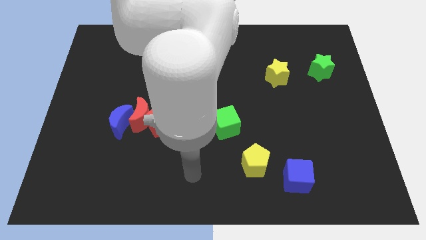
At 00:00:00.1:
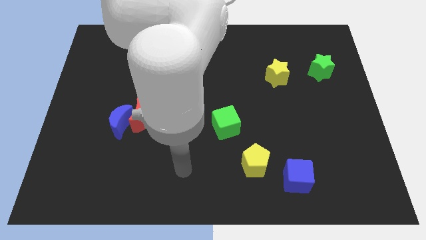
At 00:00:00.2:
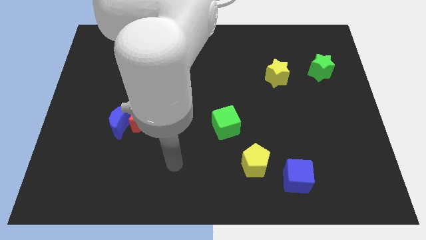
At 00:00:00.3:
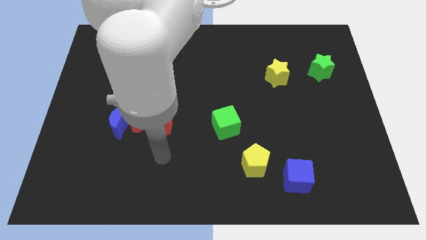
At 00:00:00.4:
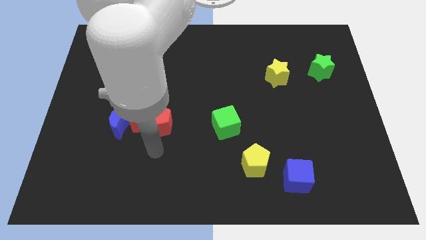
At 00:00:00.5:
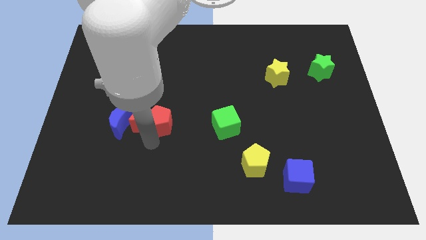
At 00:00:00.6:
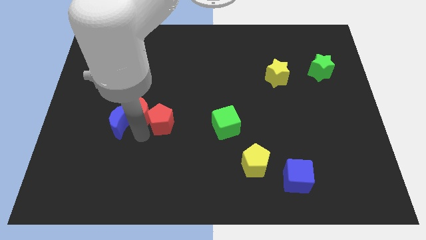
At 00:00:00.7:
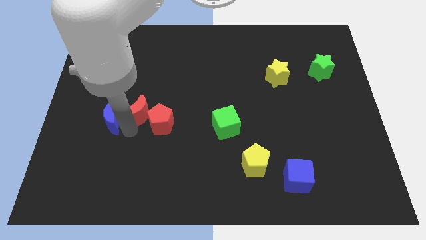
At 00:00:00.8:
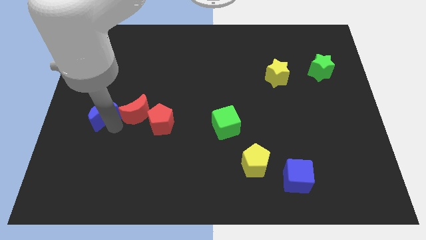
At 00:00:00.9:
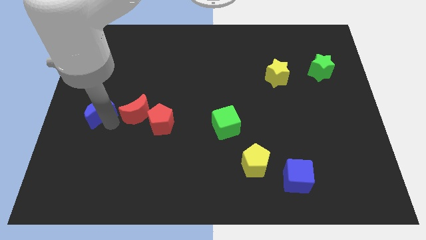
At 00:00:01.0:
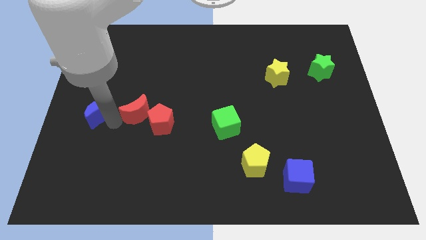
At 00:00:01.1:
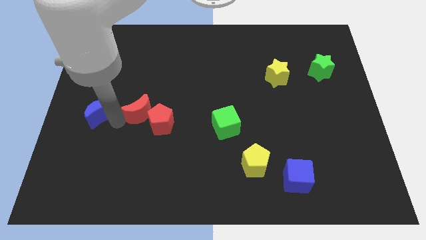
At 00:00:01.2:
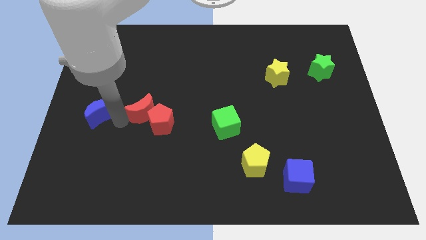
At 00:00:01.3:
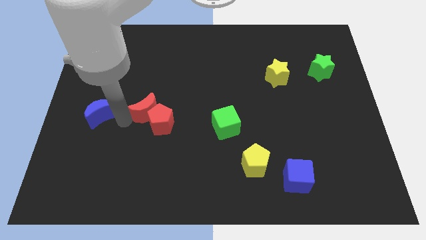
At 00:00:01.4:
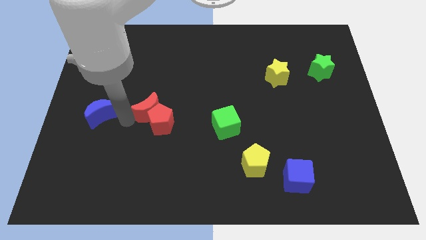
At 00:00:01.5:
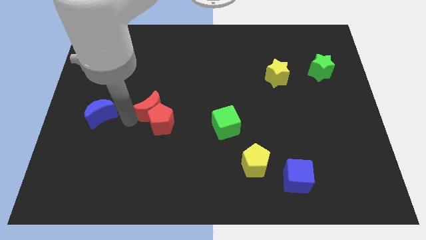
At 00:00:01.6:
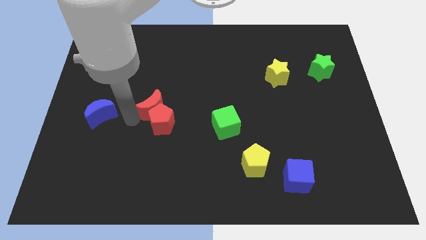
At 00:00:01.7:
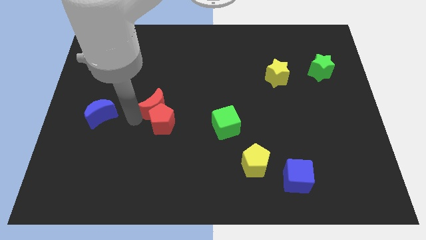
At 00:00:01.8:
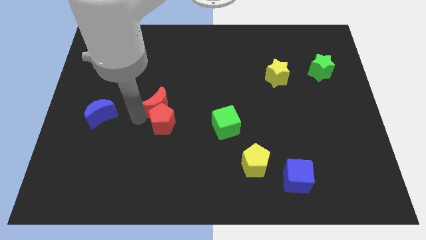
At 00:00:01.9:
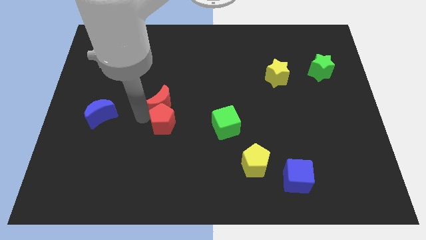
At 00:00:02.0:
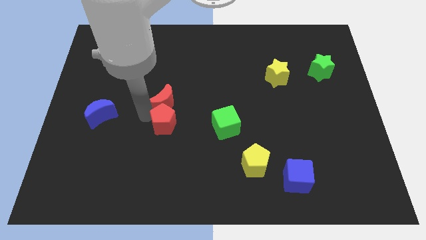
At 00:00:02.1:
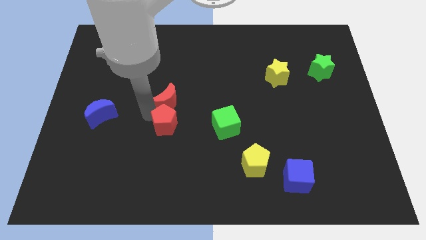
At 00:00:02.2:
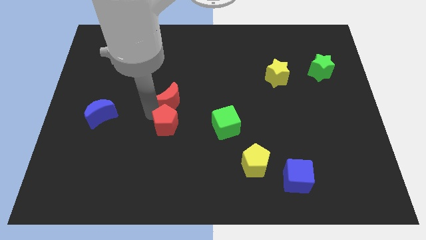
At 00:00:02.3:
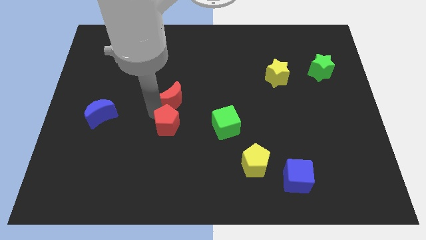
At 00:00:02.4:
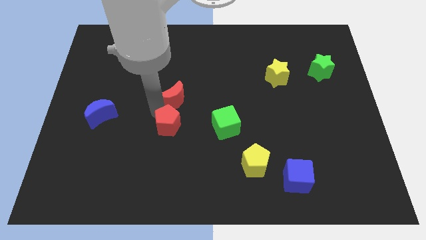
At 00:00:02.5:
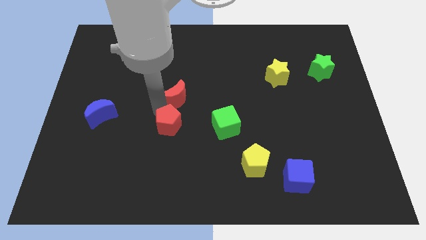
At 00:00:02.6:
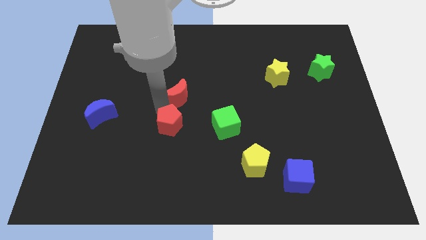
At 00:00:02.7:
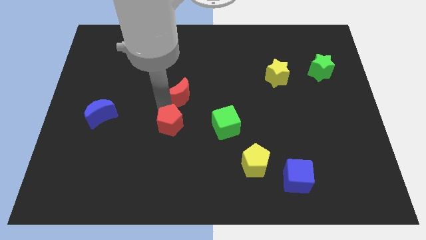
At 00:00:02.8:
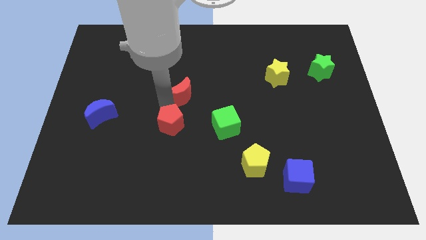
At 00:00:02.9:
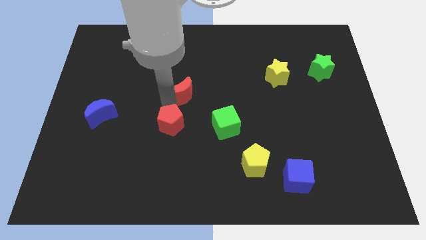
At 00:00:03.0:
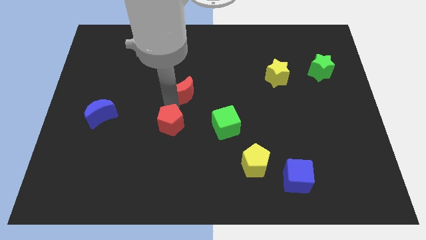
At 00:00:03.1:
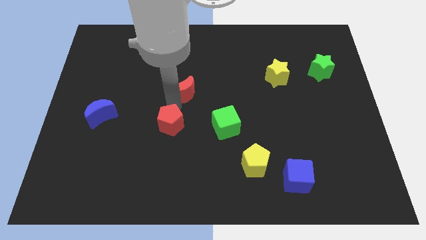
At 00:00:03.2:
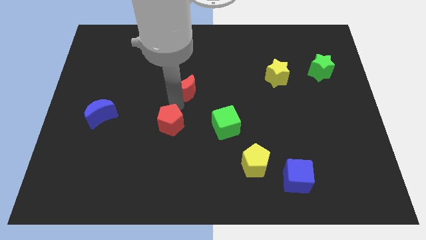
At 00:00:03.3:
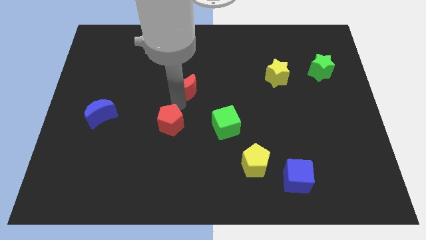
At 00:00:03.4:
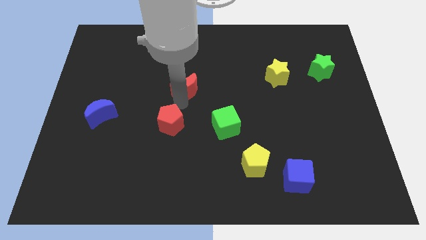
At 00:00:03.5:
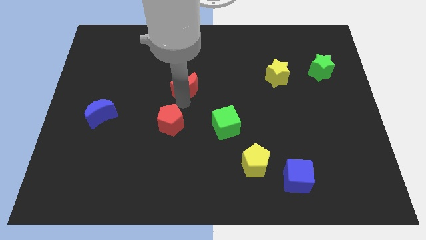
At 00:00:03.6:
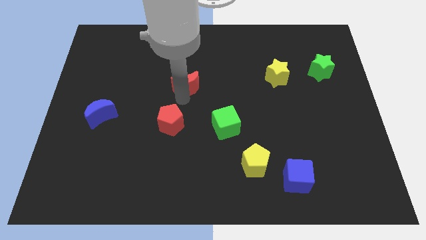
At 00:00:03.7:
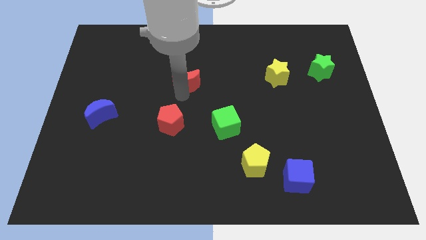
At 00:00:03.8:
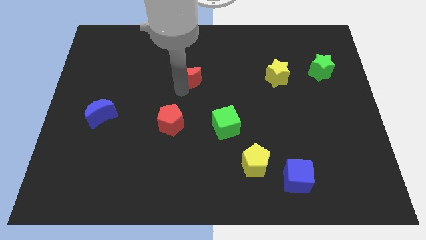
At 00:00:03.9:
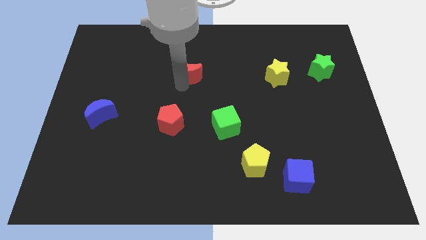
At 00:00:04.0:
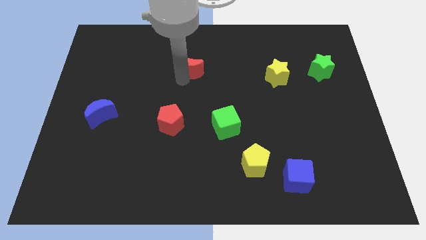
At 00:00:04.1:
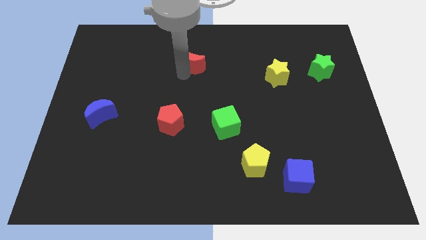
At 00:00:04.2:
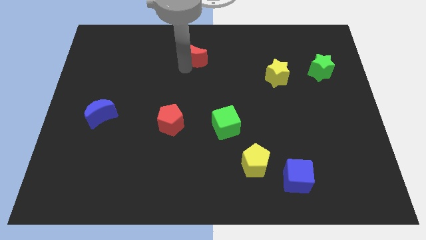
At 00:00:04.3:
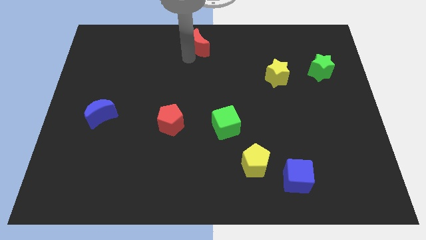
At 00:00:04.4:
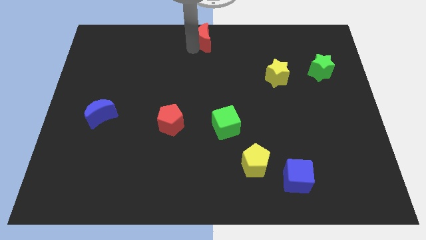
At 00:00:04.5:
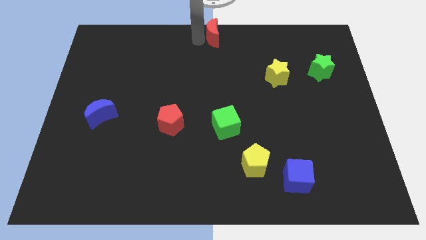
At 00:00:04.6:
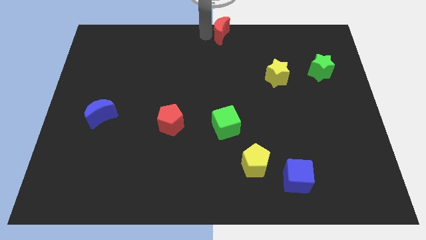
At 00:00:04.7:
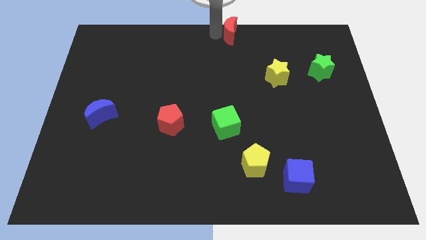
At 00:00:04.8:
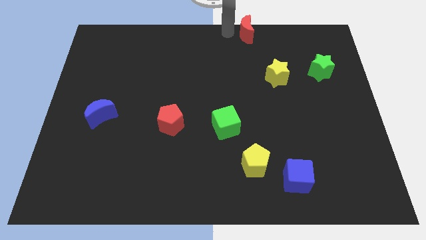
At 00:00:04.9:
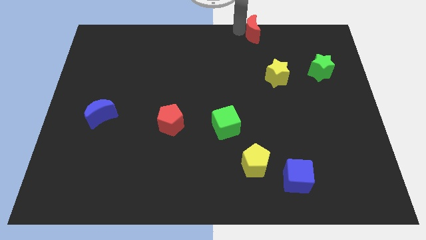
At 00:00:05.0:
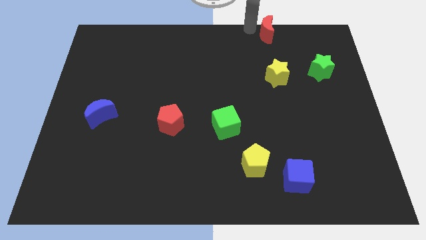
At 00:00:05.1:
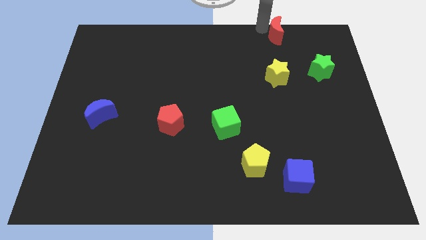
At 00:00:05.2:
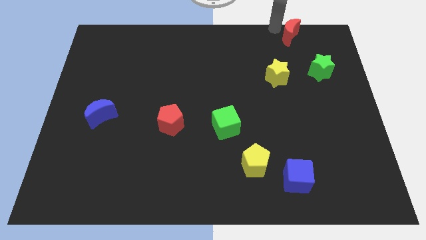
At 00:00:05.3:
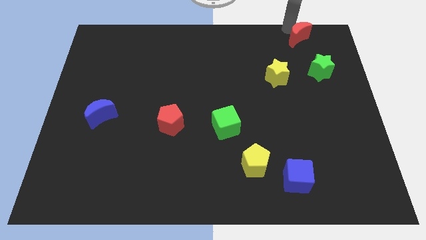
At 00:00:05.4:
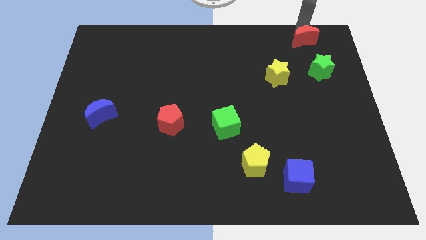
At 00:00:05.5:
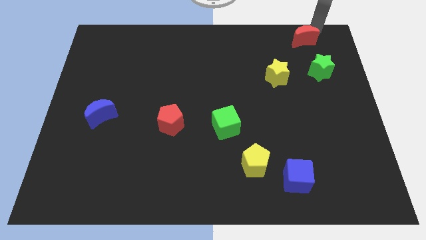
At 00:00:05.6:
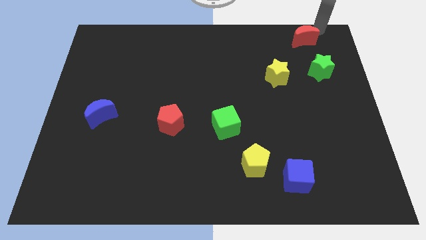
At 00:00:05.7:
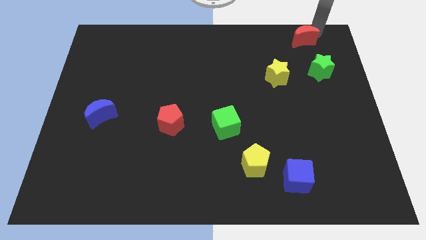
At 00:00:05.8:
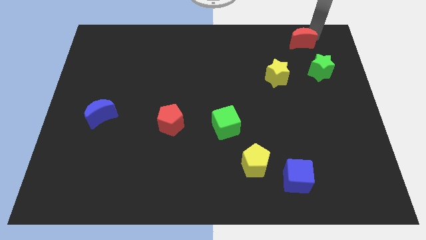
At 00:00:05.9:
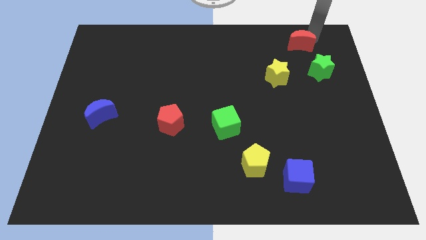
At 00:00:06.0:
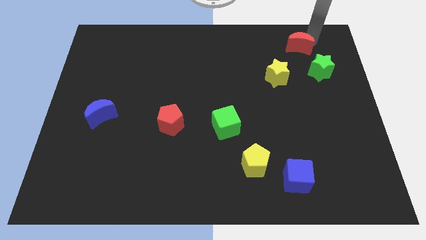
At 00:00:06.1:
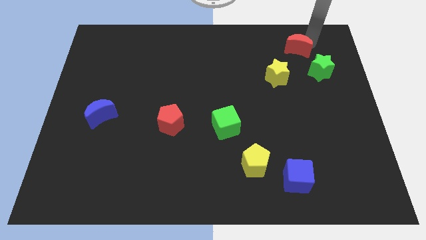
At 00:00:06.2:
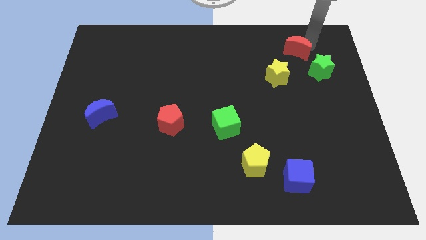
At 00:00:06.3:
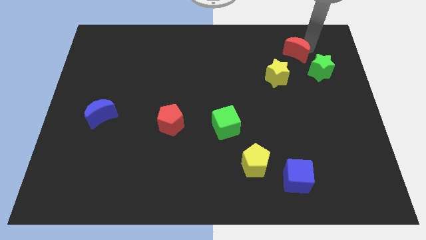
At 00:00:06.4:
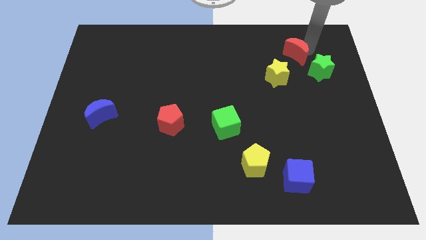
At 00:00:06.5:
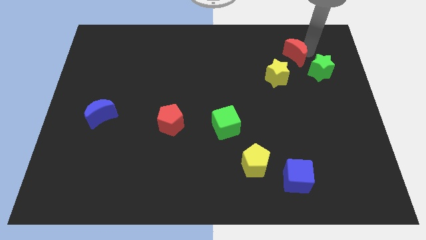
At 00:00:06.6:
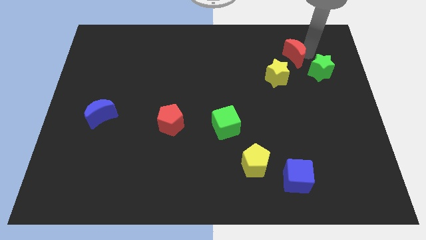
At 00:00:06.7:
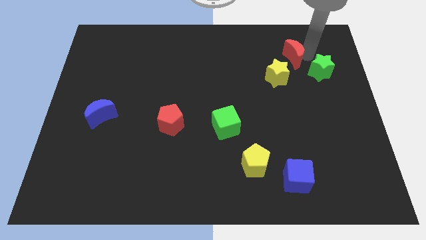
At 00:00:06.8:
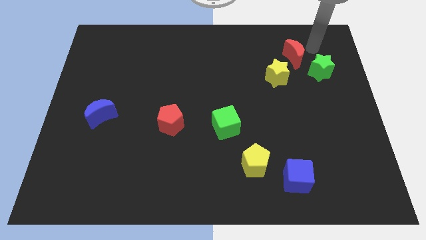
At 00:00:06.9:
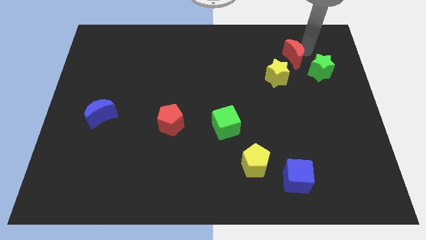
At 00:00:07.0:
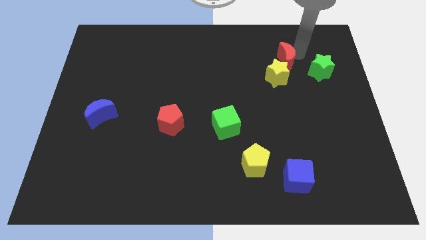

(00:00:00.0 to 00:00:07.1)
move the red moon close to the yellow star
